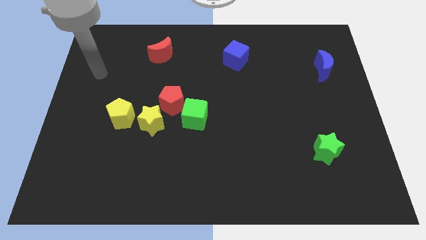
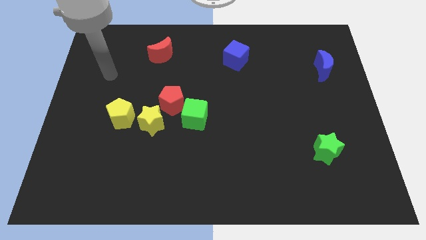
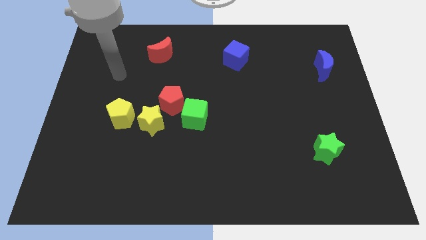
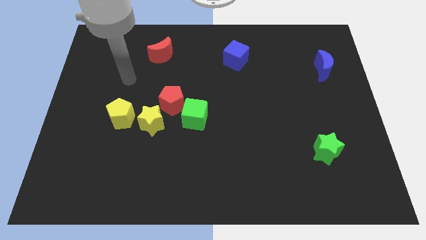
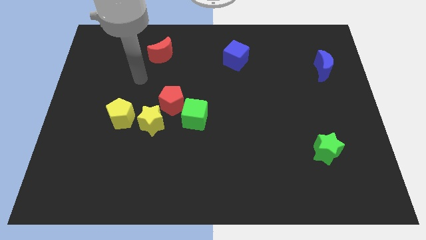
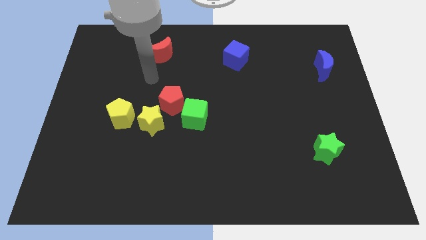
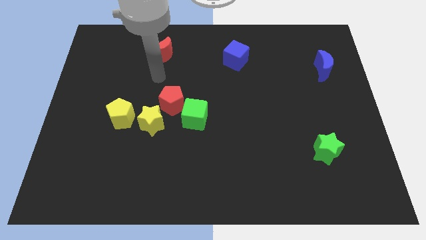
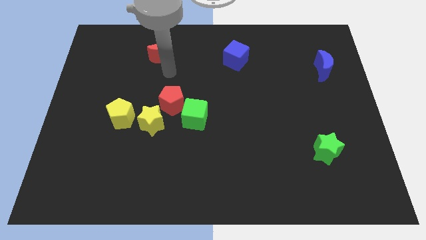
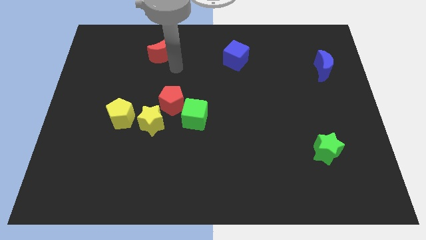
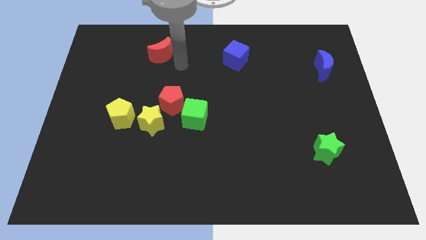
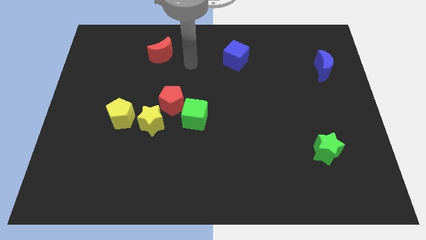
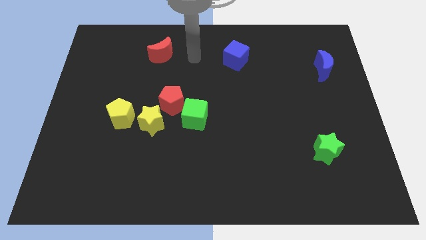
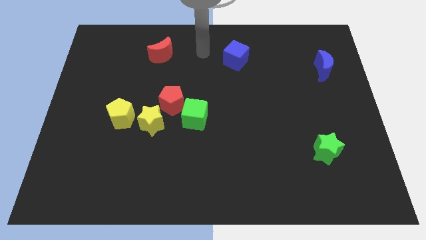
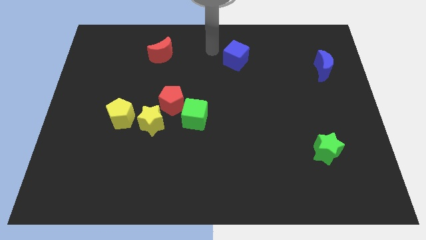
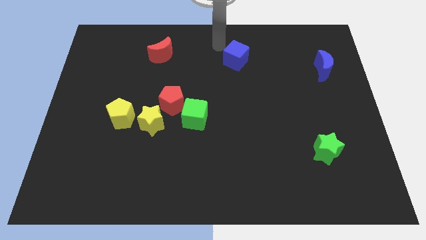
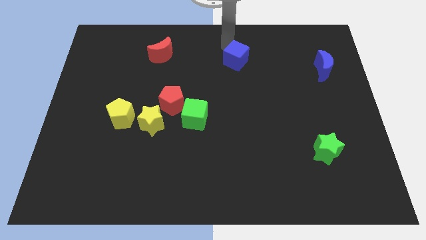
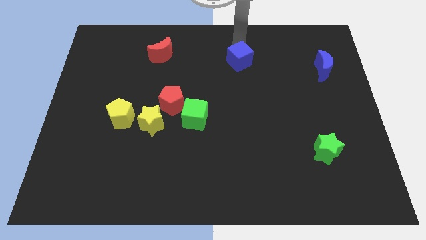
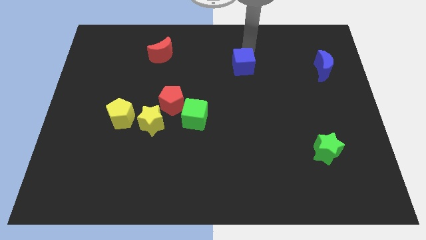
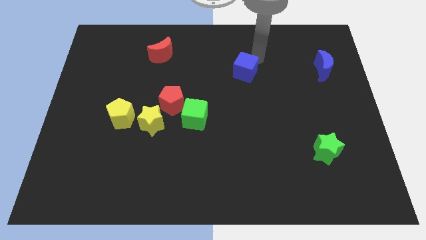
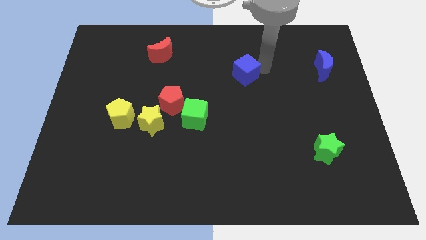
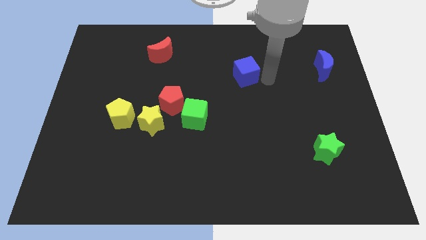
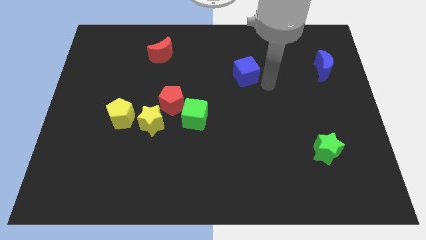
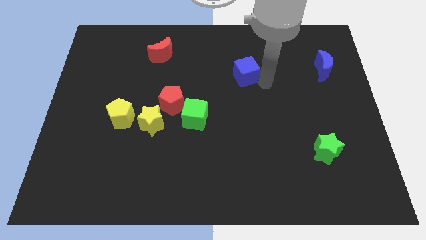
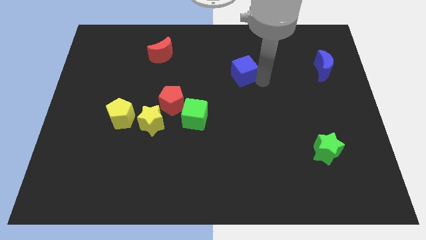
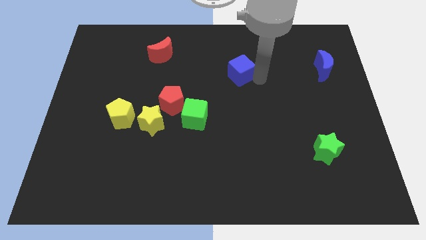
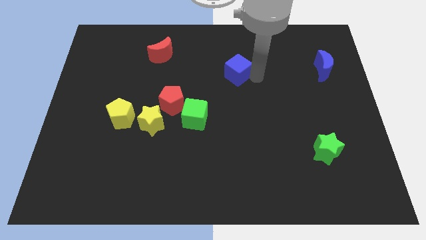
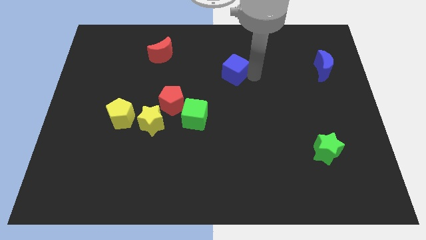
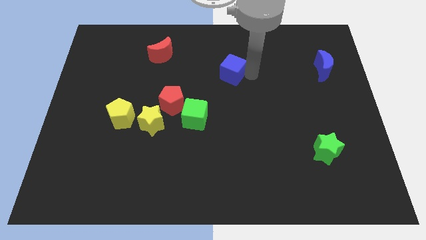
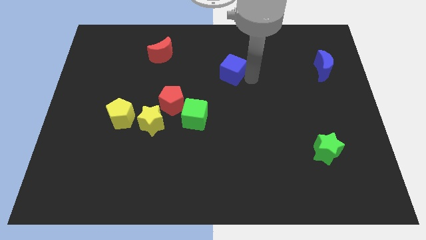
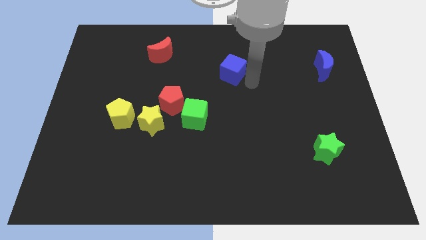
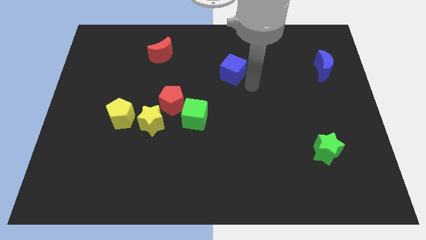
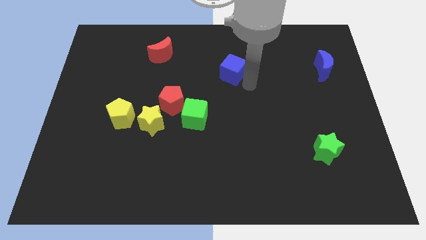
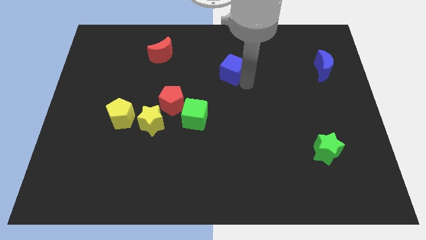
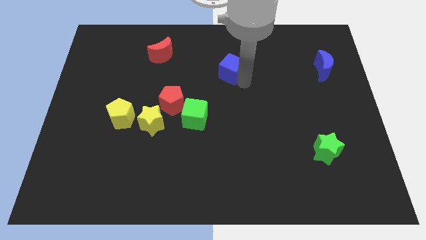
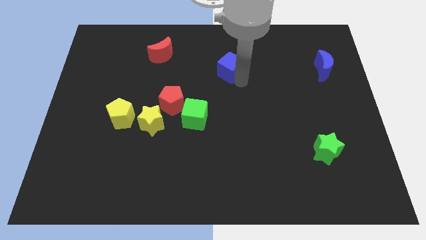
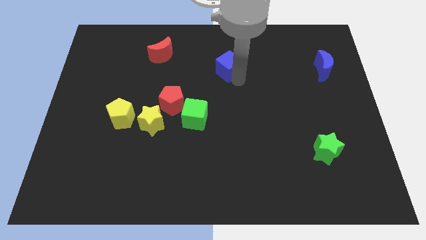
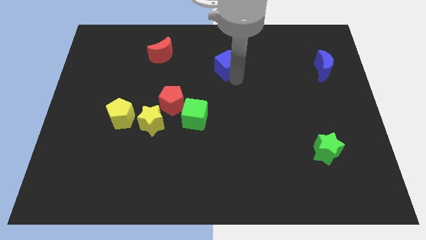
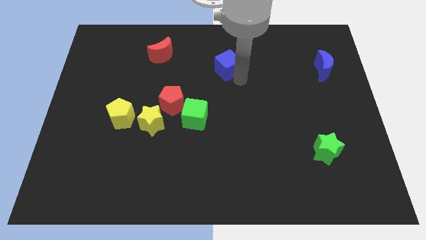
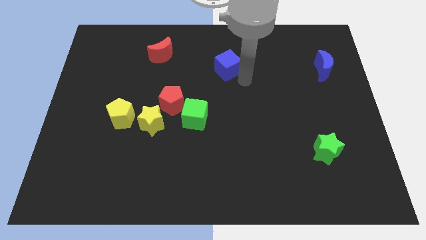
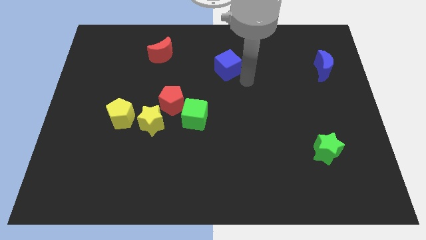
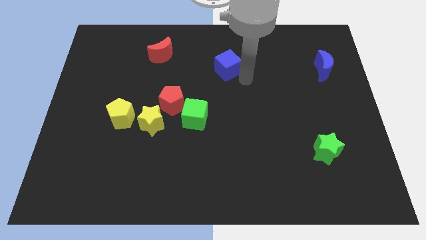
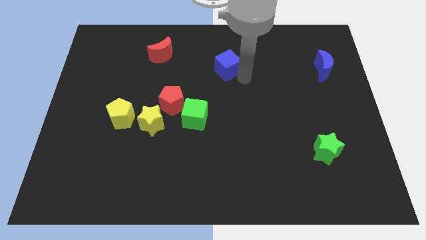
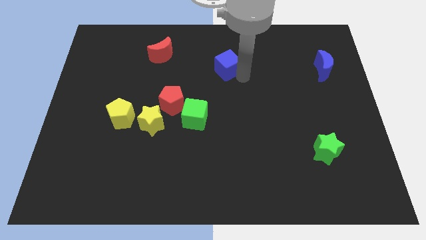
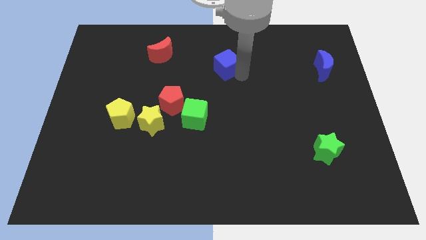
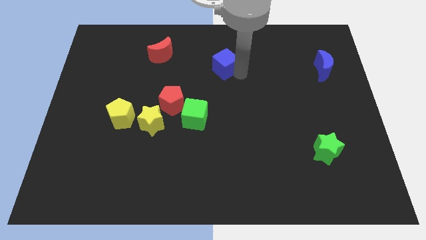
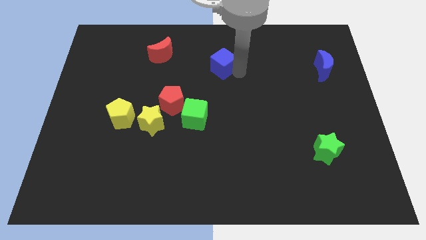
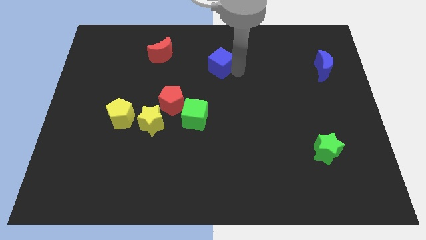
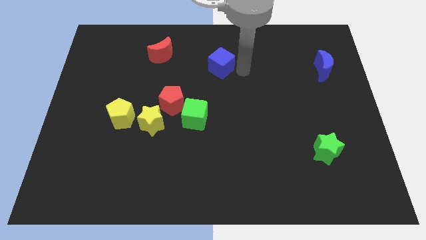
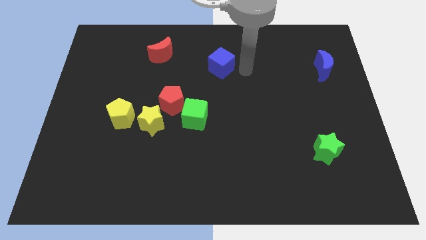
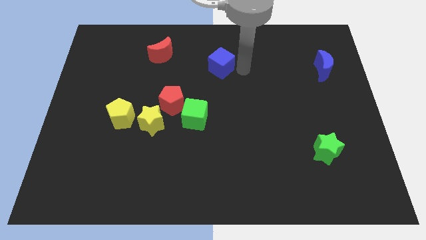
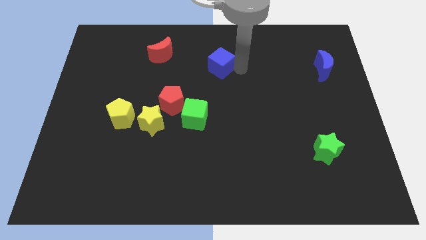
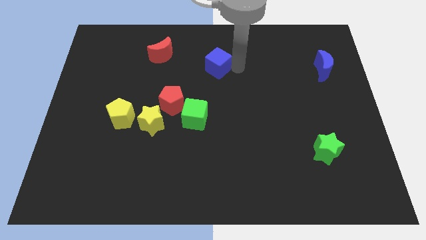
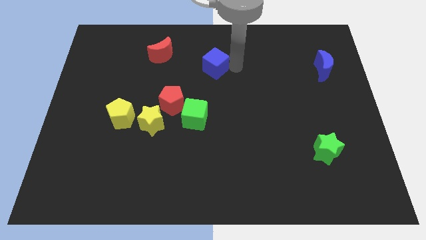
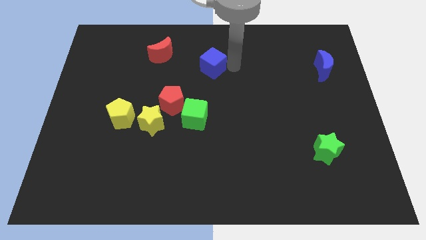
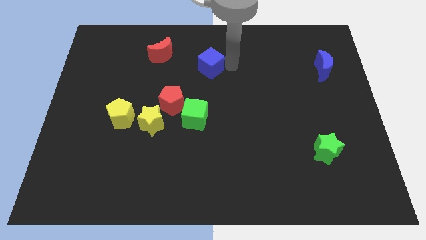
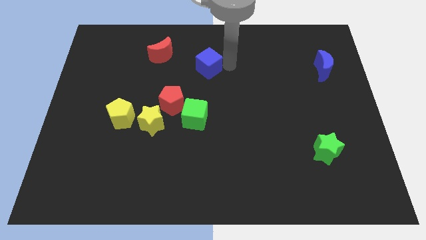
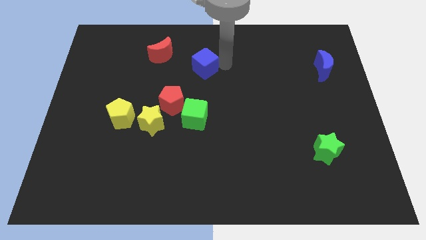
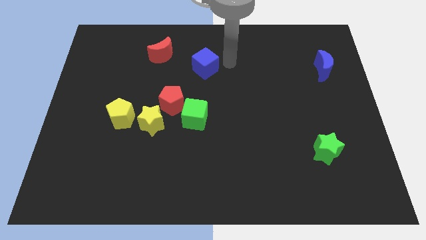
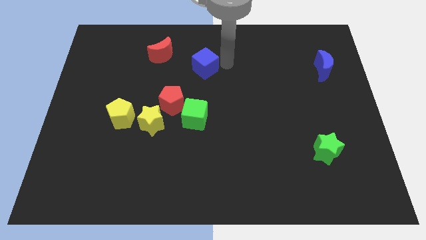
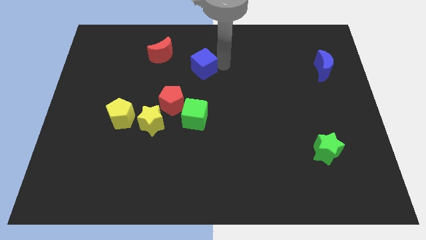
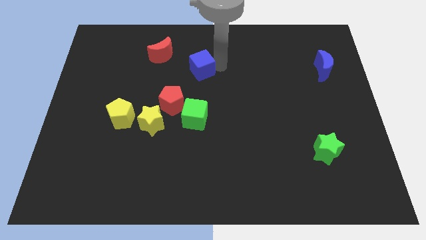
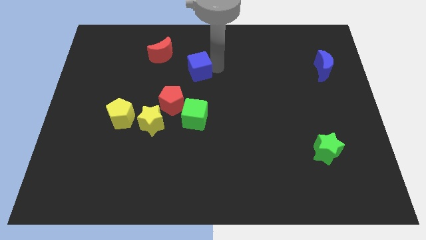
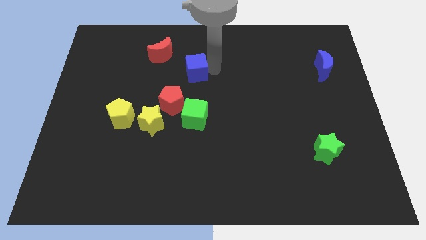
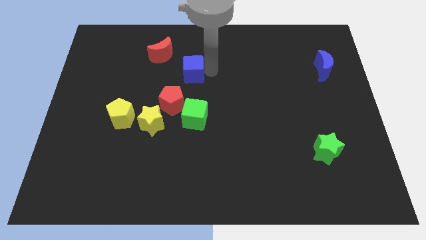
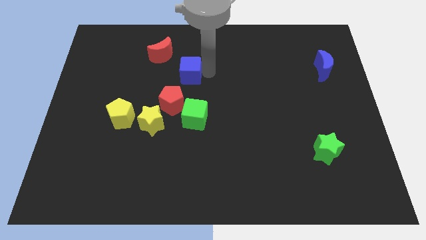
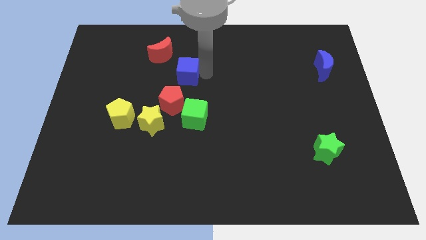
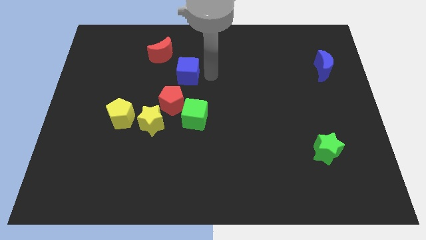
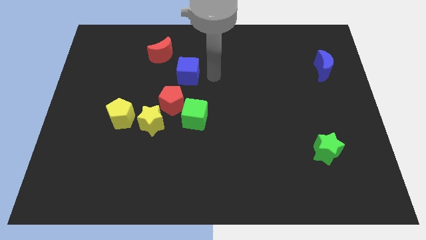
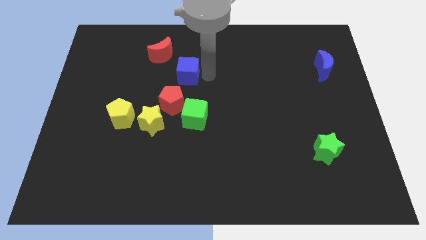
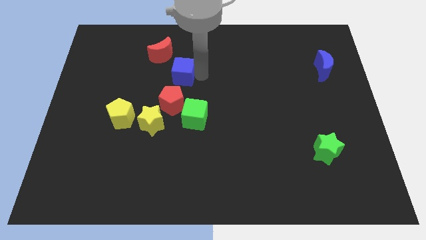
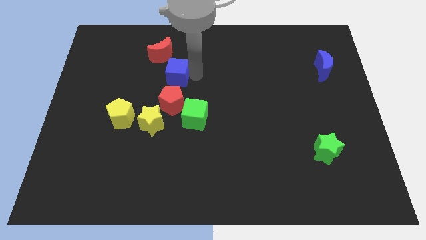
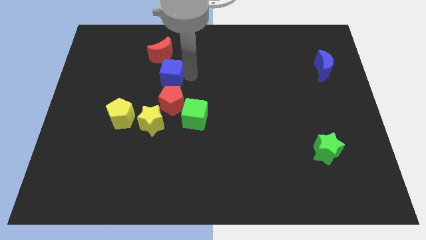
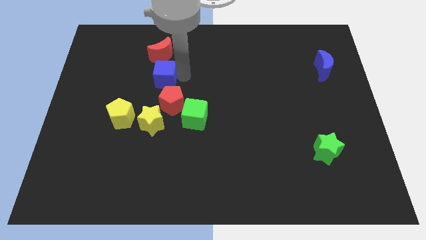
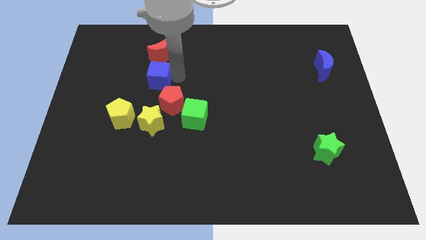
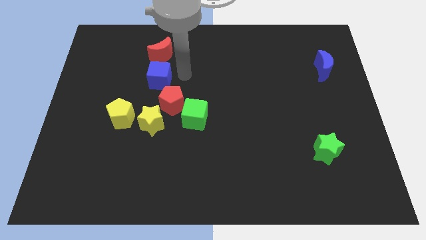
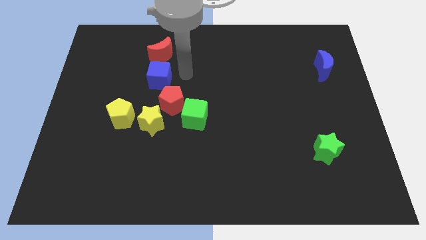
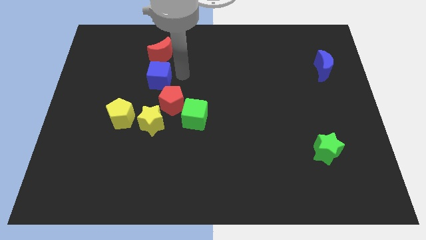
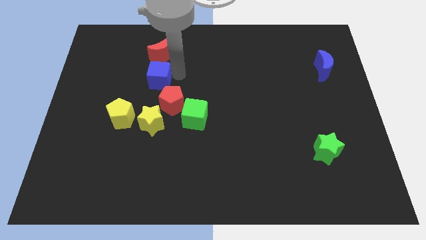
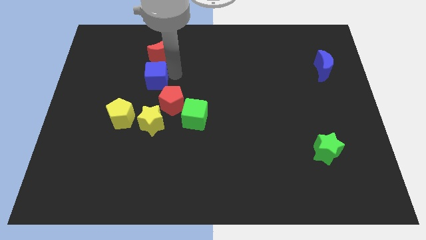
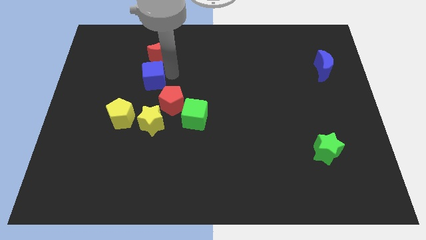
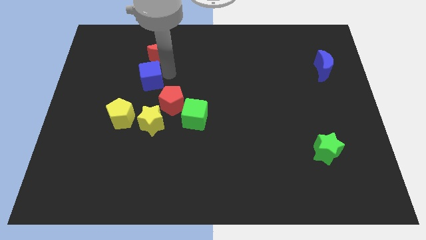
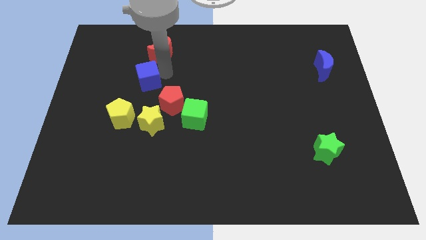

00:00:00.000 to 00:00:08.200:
move the blue cube to the top side of the yellow pentagon
